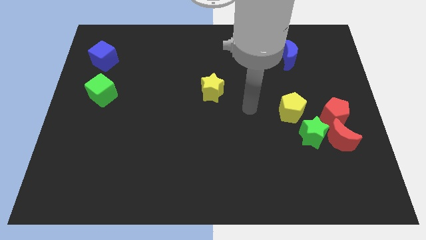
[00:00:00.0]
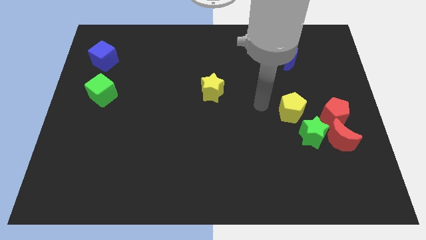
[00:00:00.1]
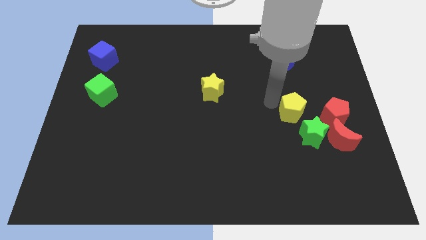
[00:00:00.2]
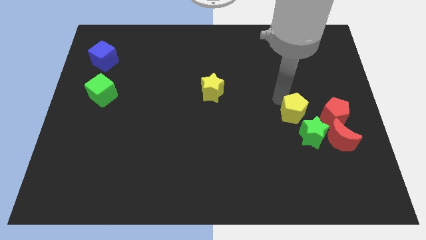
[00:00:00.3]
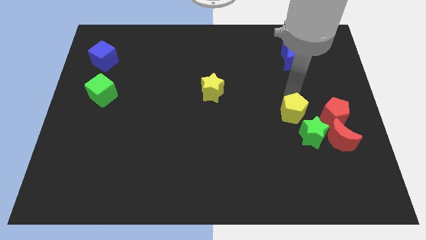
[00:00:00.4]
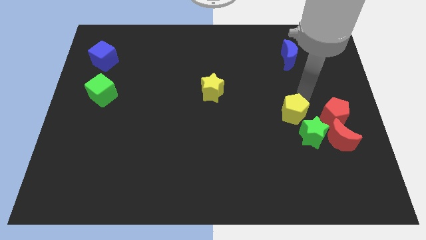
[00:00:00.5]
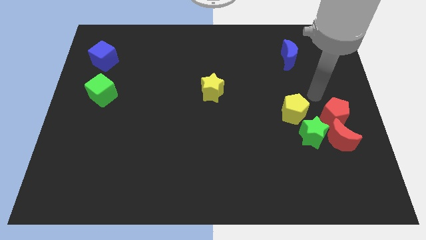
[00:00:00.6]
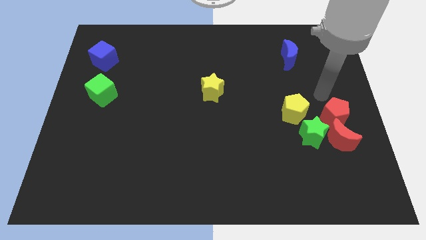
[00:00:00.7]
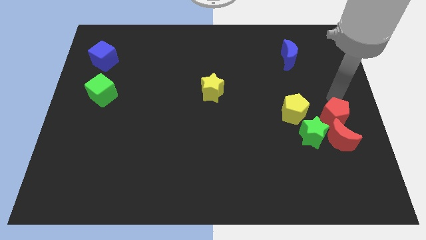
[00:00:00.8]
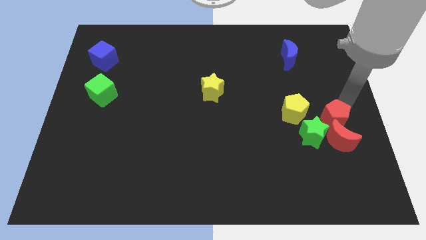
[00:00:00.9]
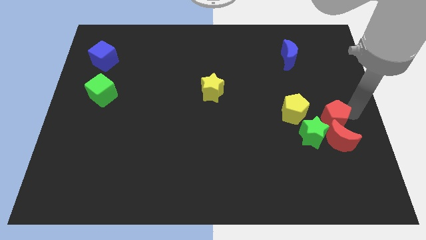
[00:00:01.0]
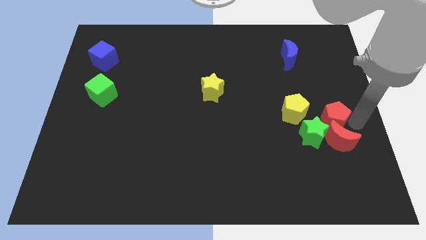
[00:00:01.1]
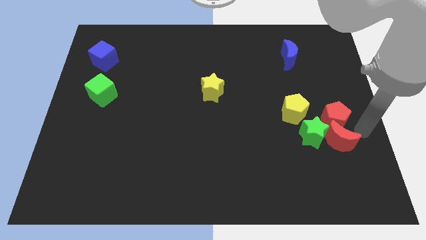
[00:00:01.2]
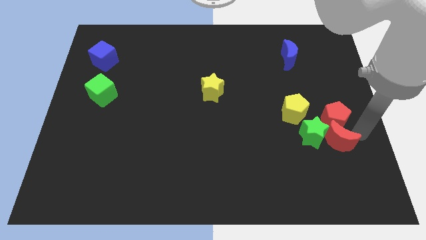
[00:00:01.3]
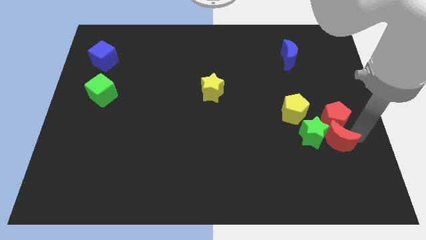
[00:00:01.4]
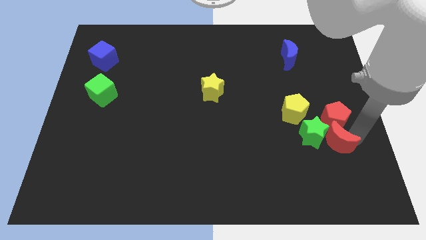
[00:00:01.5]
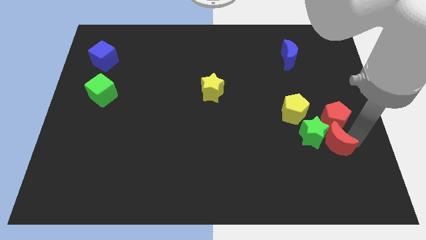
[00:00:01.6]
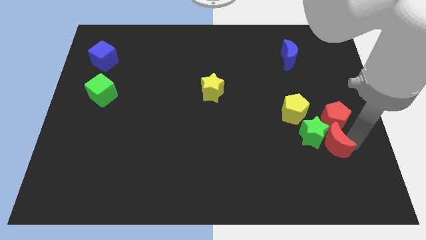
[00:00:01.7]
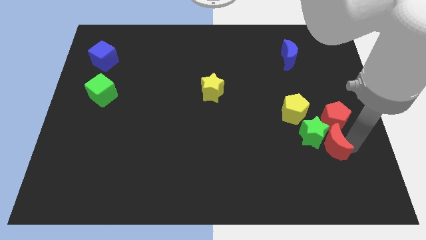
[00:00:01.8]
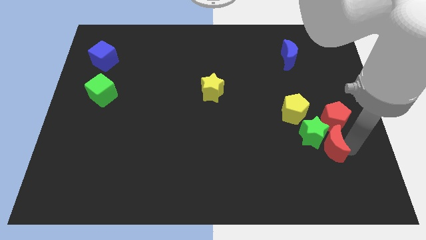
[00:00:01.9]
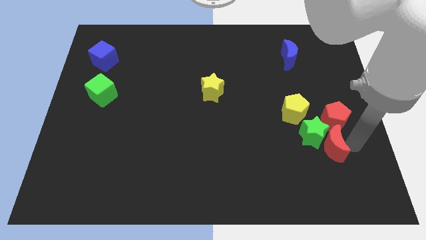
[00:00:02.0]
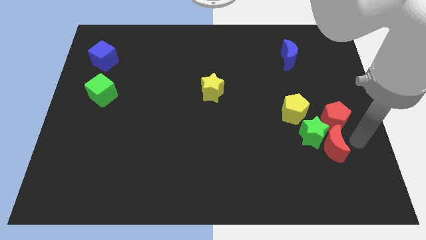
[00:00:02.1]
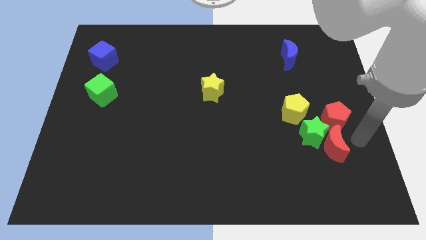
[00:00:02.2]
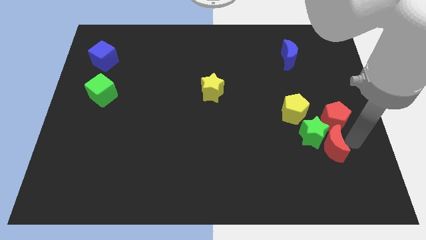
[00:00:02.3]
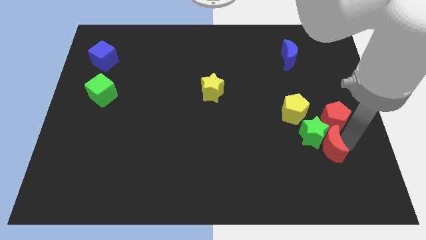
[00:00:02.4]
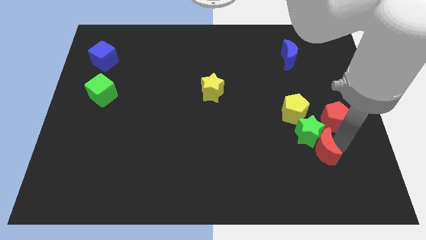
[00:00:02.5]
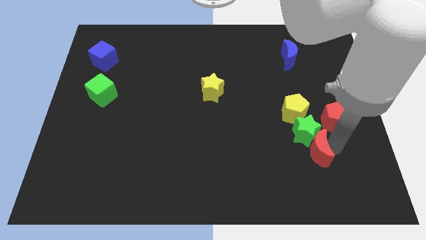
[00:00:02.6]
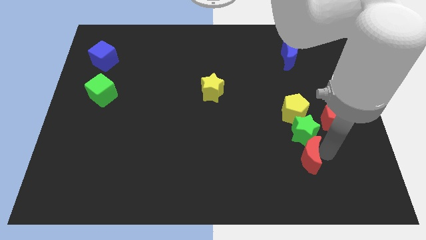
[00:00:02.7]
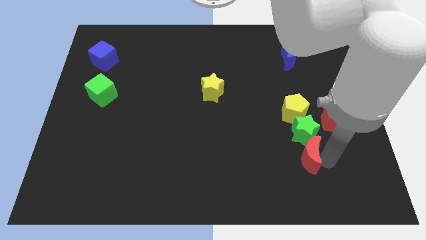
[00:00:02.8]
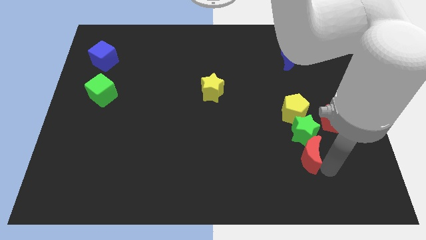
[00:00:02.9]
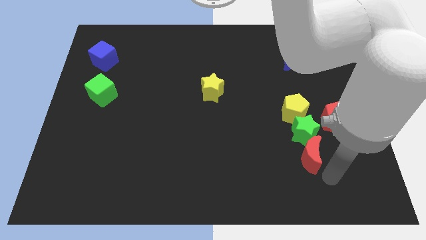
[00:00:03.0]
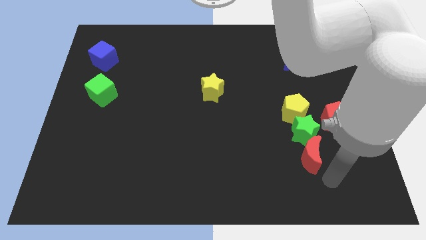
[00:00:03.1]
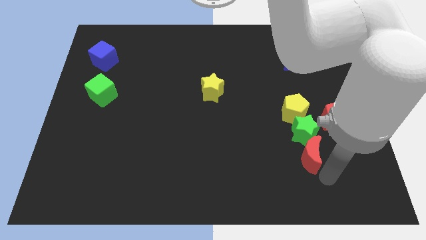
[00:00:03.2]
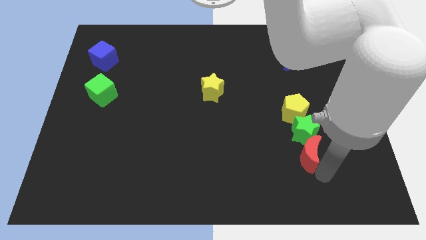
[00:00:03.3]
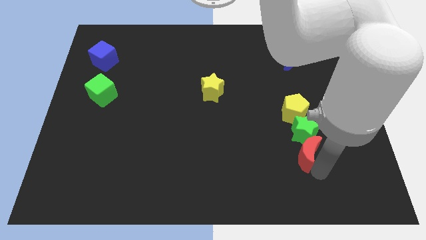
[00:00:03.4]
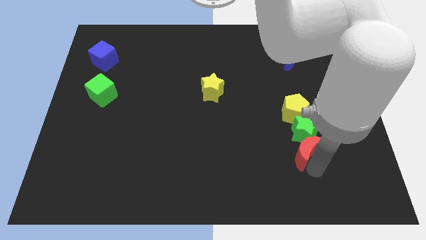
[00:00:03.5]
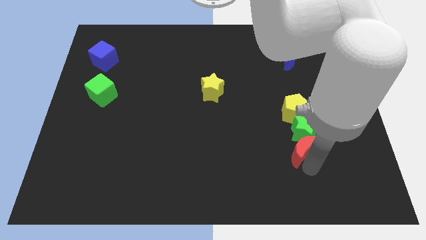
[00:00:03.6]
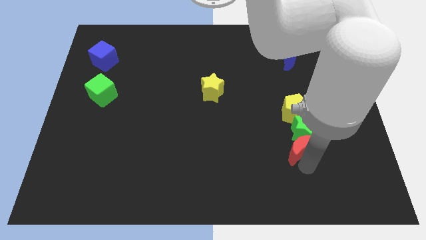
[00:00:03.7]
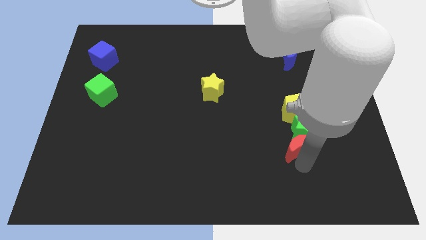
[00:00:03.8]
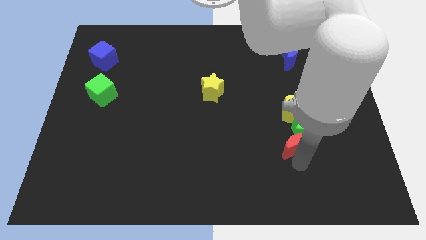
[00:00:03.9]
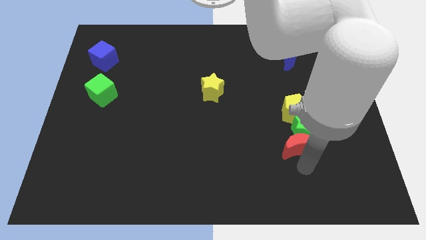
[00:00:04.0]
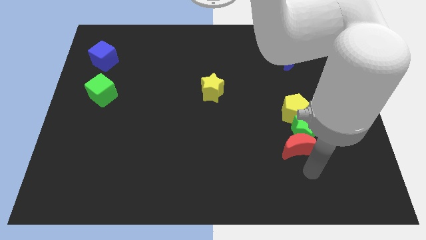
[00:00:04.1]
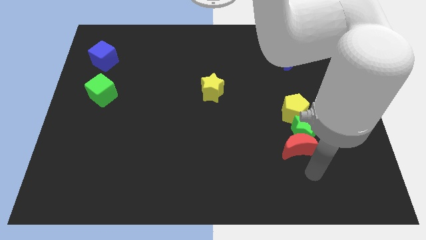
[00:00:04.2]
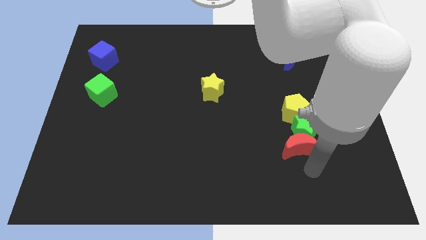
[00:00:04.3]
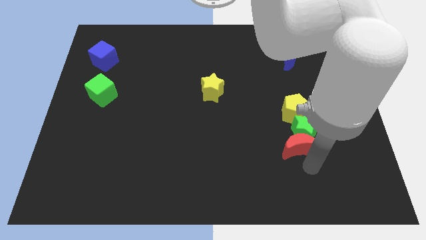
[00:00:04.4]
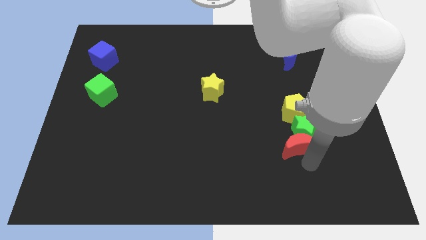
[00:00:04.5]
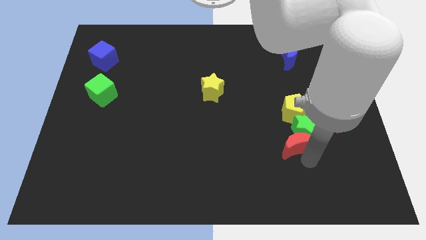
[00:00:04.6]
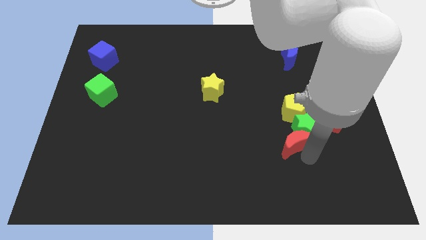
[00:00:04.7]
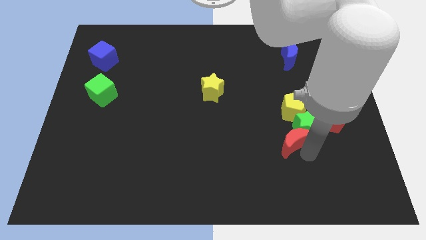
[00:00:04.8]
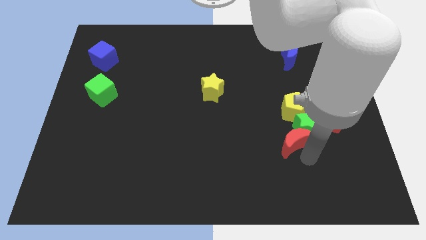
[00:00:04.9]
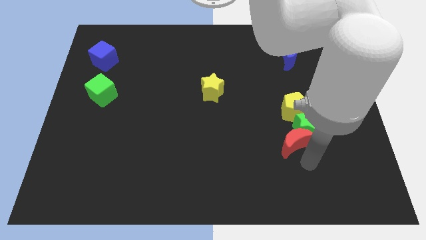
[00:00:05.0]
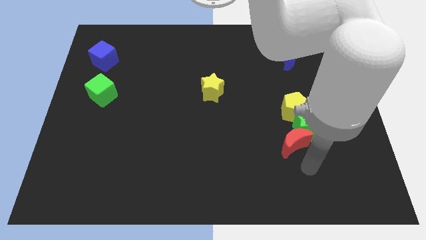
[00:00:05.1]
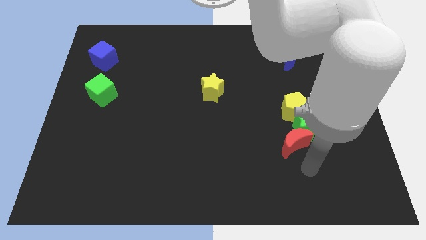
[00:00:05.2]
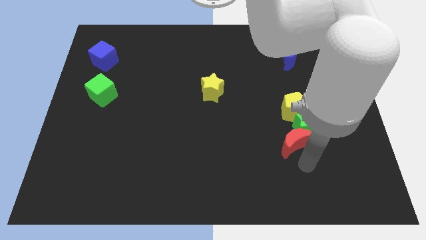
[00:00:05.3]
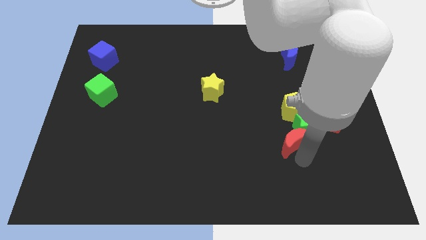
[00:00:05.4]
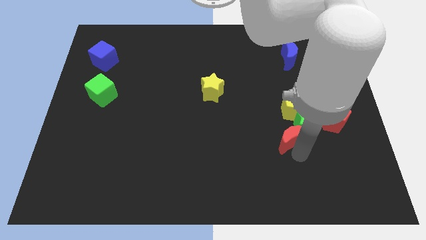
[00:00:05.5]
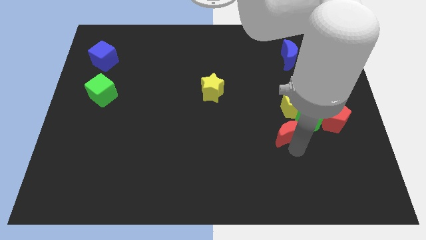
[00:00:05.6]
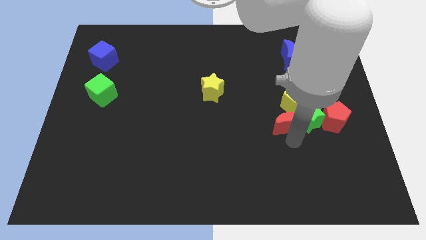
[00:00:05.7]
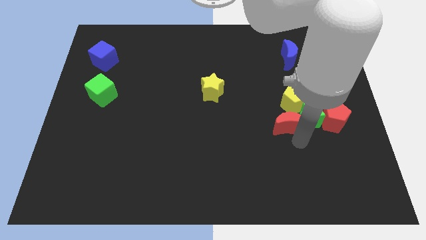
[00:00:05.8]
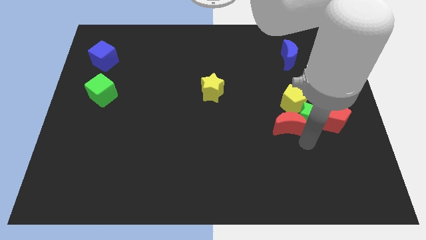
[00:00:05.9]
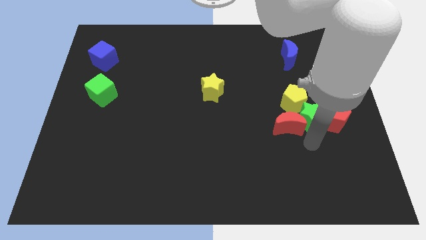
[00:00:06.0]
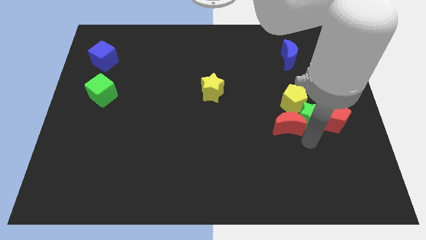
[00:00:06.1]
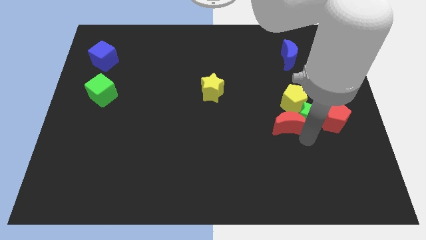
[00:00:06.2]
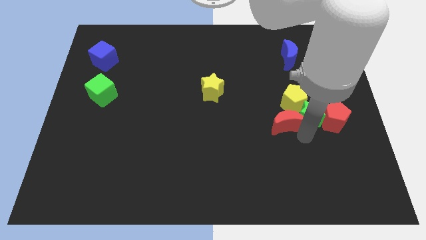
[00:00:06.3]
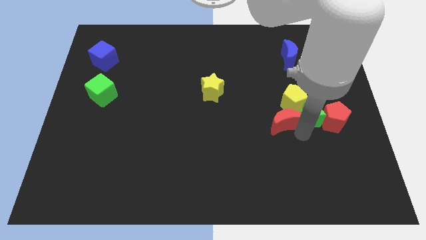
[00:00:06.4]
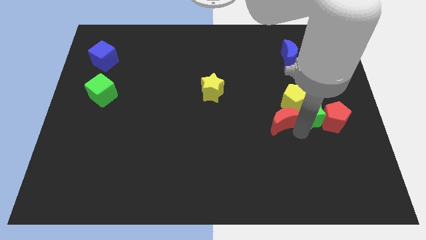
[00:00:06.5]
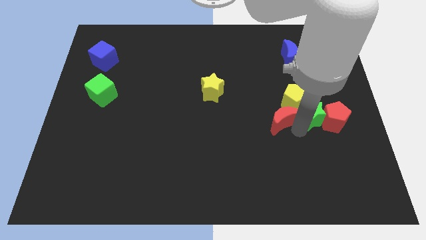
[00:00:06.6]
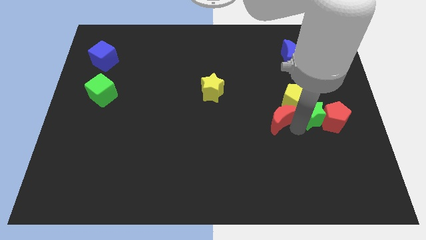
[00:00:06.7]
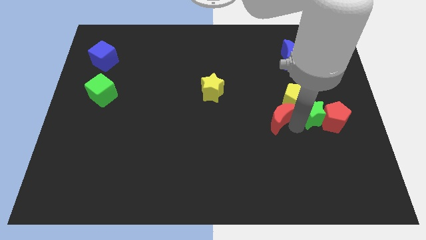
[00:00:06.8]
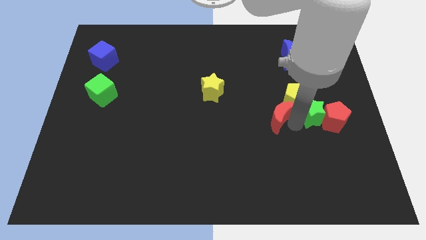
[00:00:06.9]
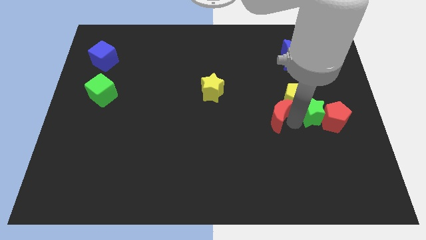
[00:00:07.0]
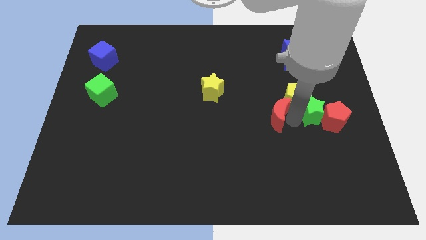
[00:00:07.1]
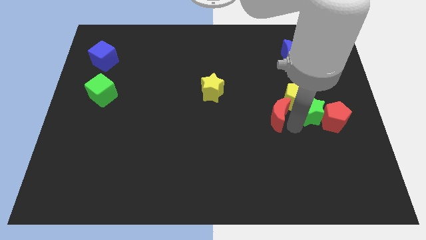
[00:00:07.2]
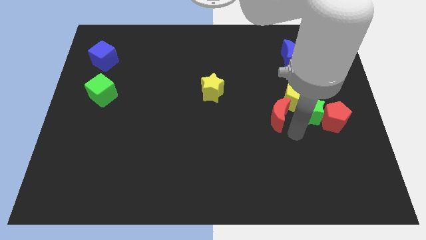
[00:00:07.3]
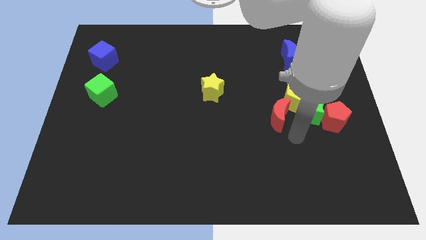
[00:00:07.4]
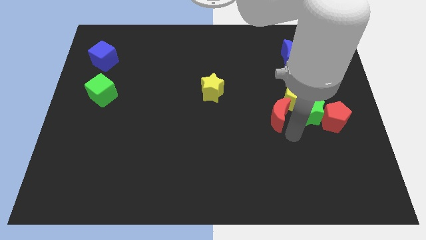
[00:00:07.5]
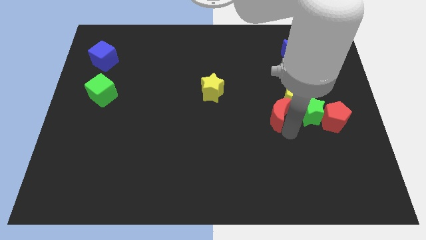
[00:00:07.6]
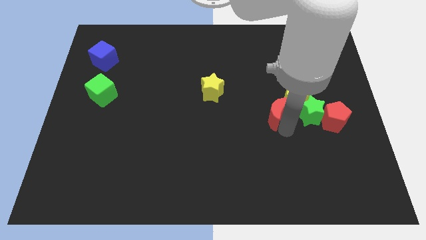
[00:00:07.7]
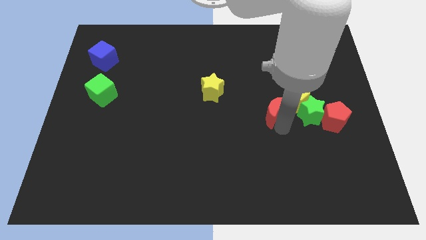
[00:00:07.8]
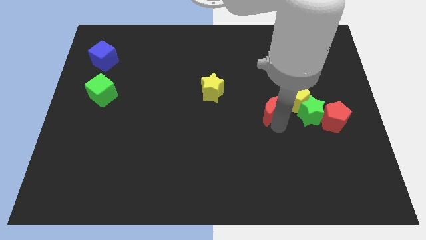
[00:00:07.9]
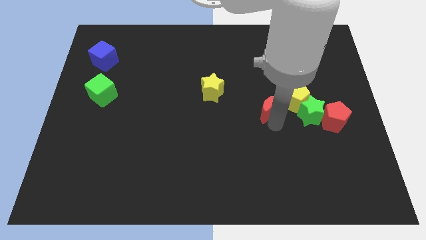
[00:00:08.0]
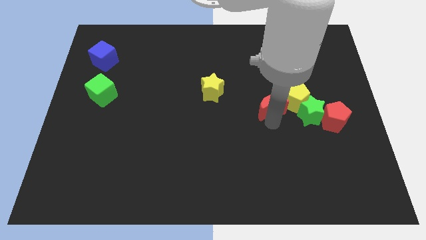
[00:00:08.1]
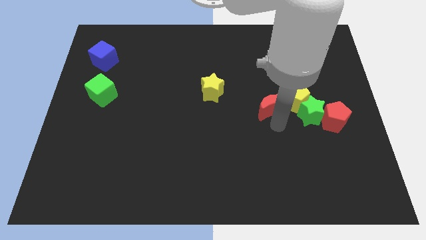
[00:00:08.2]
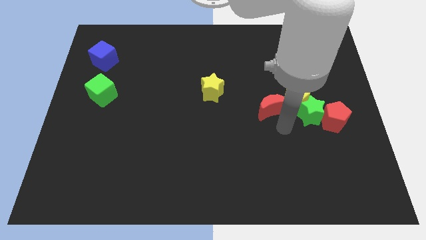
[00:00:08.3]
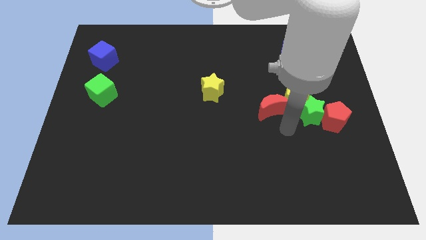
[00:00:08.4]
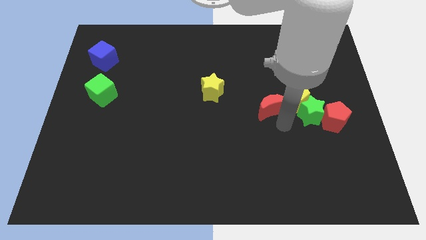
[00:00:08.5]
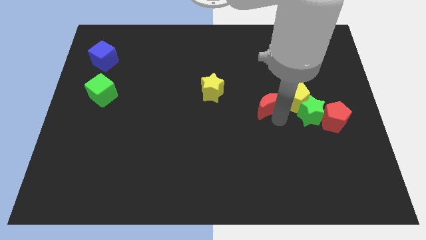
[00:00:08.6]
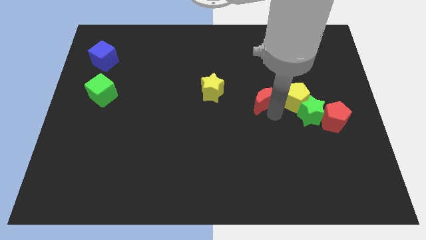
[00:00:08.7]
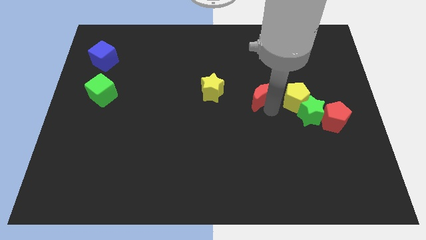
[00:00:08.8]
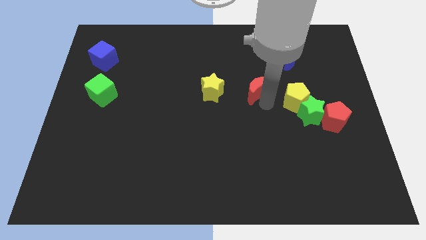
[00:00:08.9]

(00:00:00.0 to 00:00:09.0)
move the red moon up and then left
